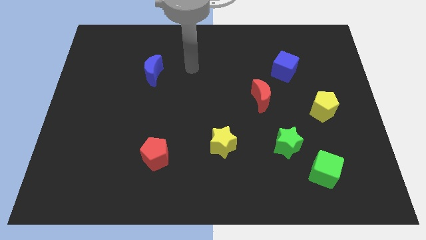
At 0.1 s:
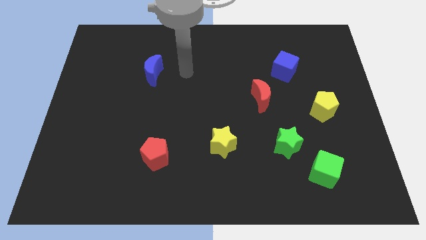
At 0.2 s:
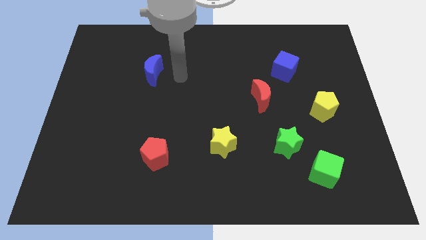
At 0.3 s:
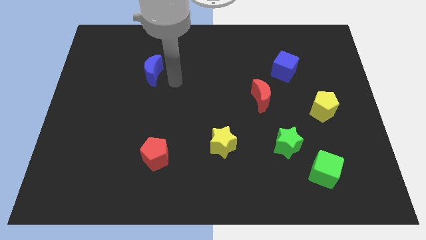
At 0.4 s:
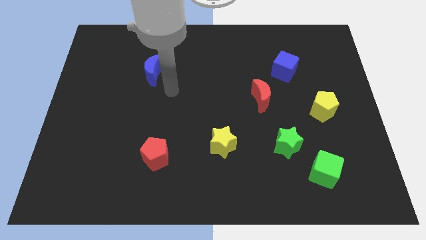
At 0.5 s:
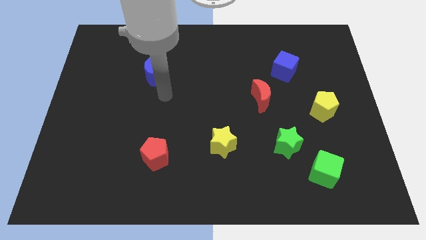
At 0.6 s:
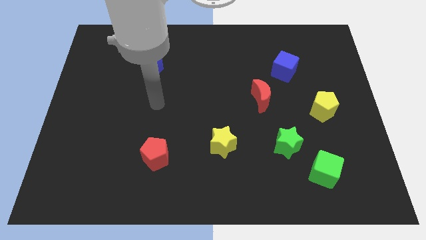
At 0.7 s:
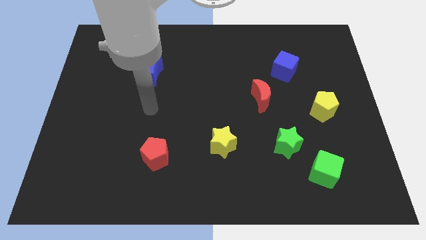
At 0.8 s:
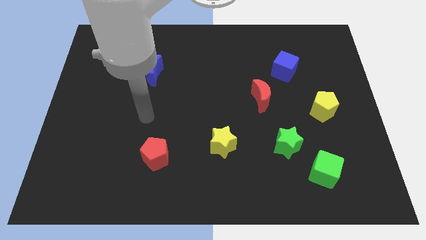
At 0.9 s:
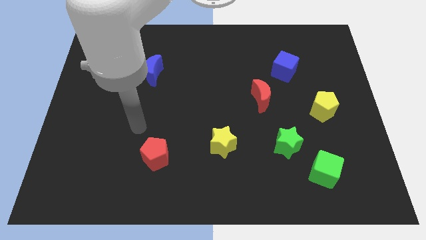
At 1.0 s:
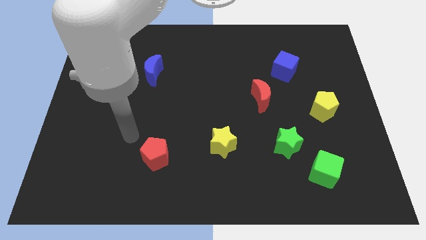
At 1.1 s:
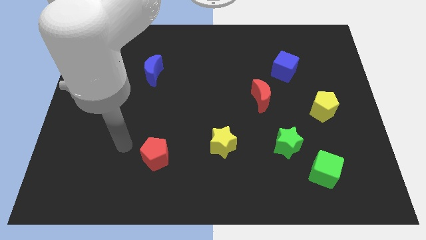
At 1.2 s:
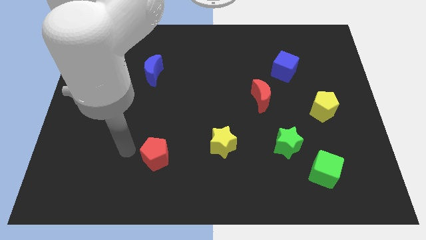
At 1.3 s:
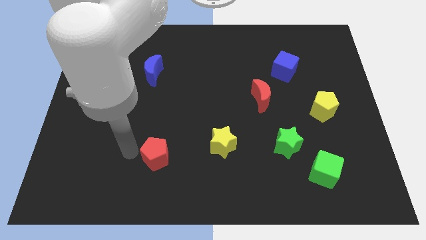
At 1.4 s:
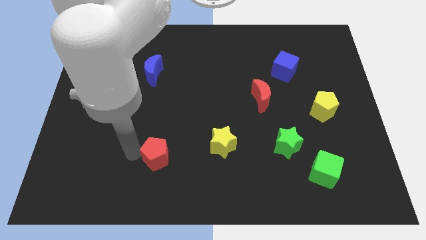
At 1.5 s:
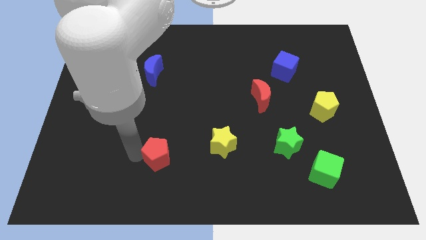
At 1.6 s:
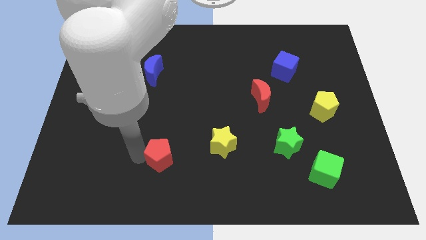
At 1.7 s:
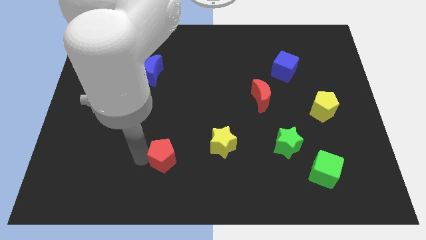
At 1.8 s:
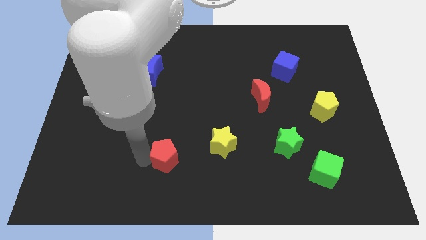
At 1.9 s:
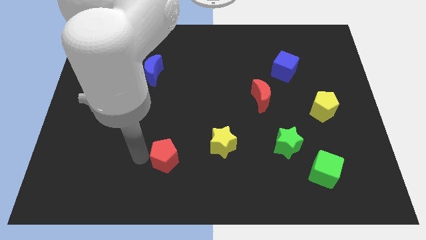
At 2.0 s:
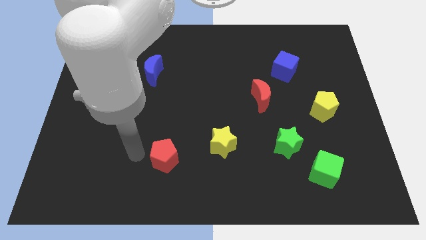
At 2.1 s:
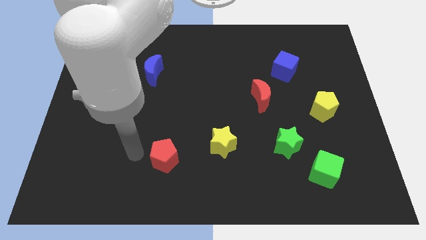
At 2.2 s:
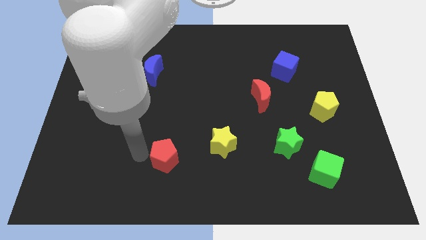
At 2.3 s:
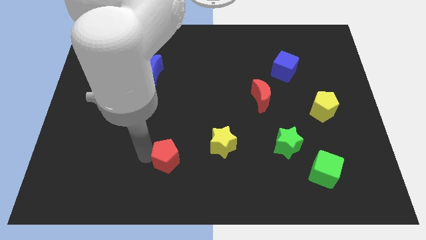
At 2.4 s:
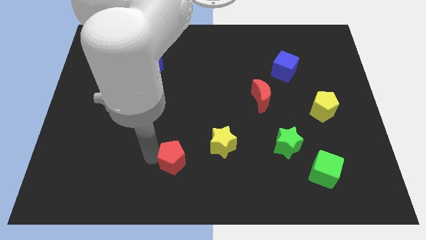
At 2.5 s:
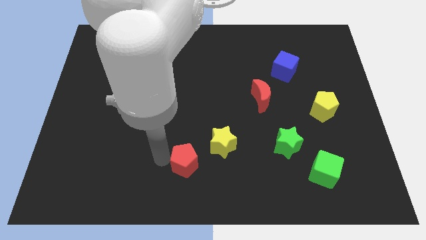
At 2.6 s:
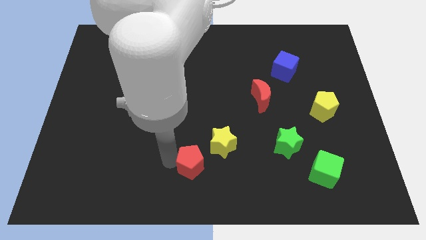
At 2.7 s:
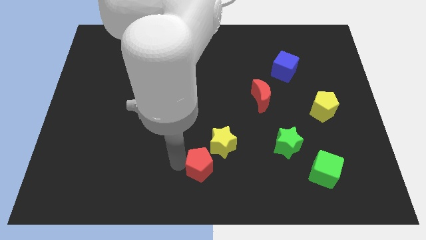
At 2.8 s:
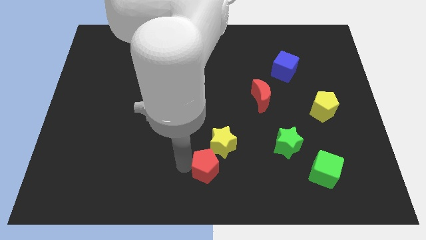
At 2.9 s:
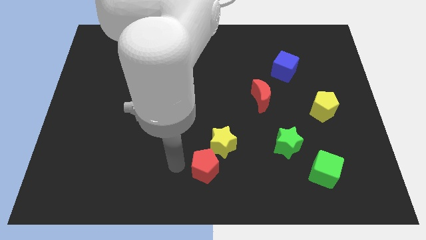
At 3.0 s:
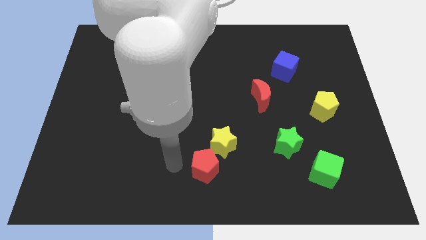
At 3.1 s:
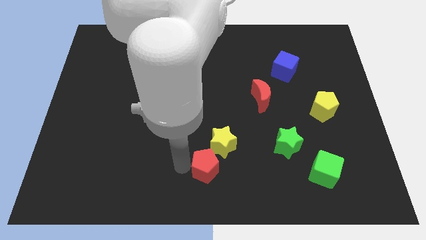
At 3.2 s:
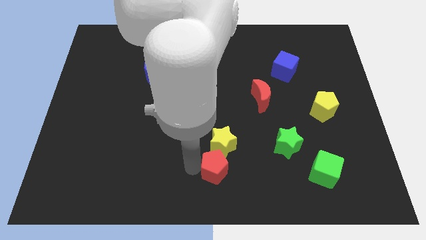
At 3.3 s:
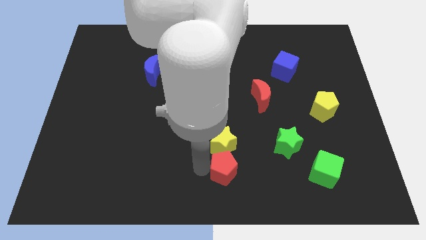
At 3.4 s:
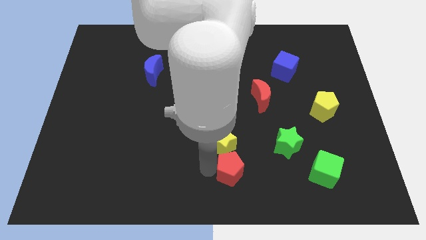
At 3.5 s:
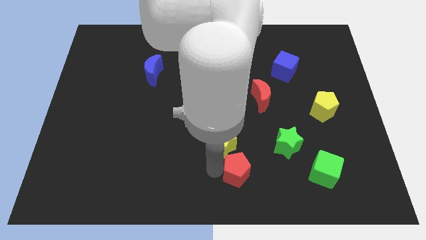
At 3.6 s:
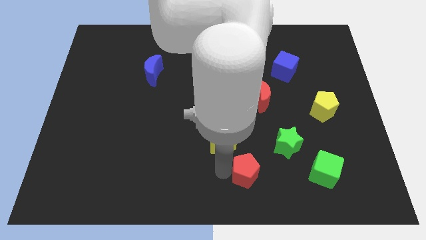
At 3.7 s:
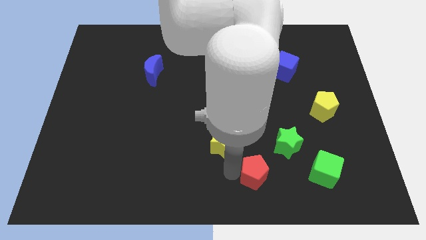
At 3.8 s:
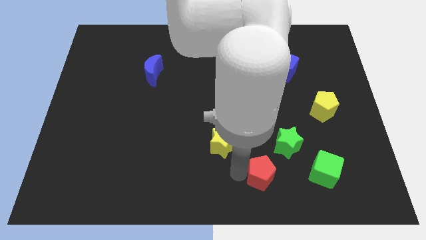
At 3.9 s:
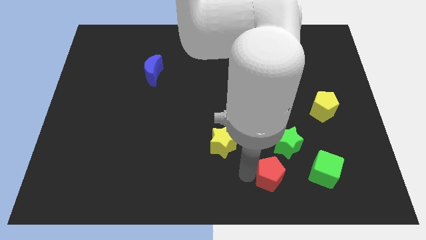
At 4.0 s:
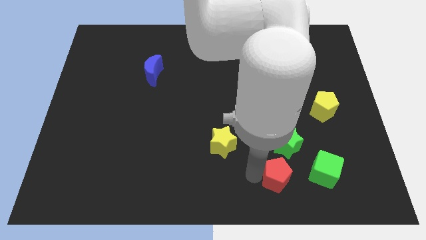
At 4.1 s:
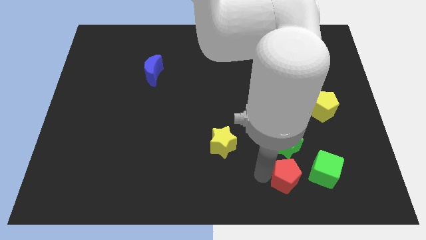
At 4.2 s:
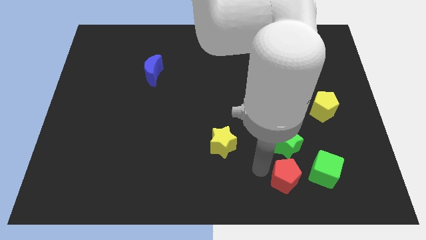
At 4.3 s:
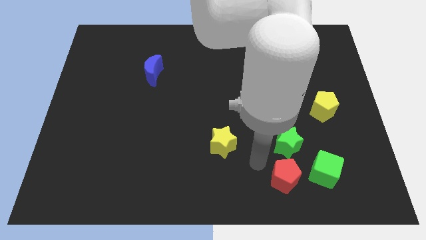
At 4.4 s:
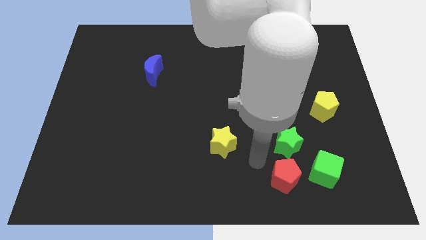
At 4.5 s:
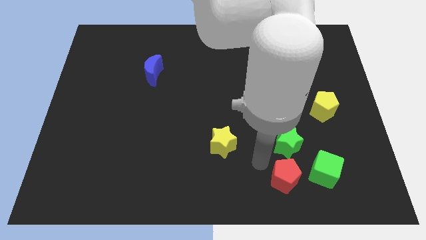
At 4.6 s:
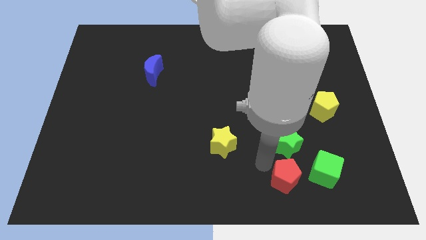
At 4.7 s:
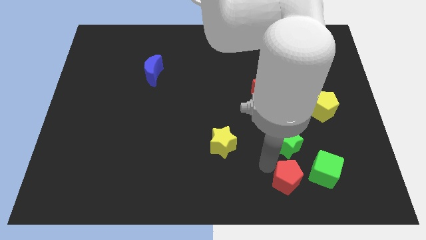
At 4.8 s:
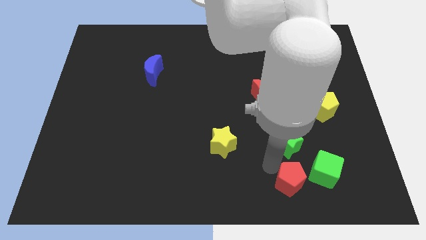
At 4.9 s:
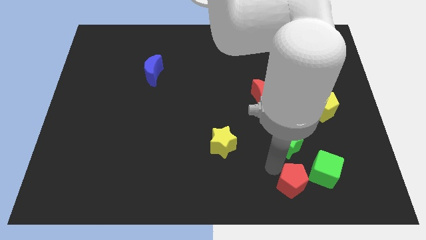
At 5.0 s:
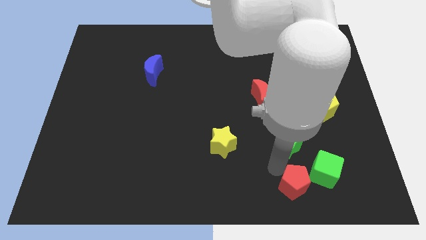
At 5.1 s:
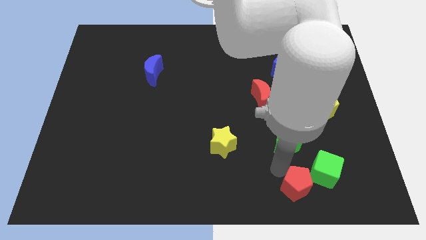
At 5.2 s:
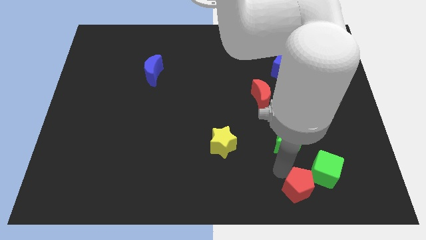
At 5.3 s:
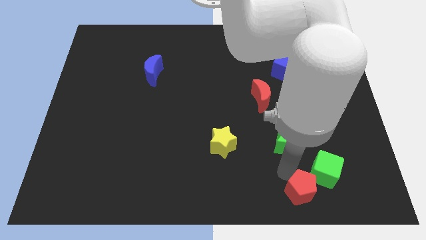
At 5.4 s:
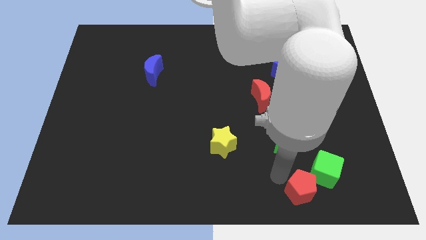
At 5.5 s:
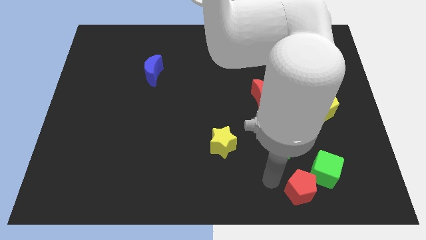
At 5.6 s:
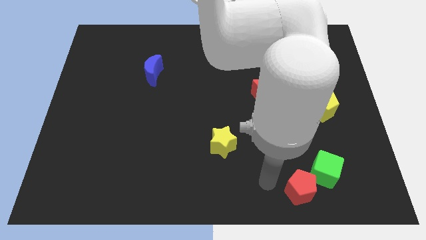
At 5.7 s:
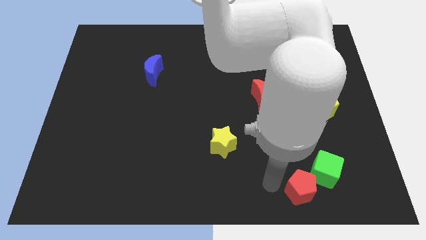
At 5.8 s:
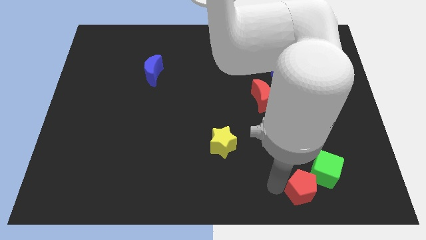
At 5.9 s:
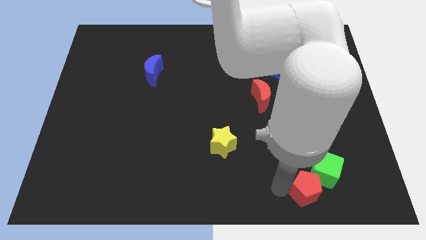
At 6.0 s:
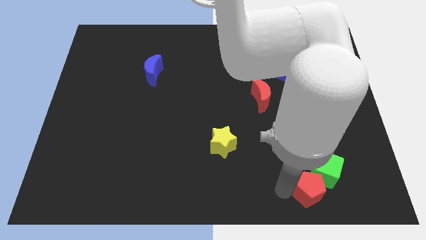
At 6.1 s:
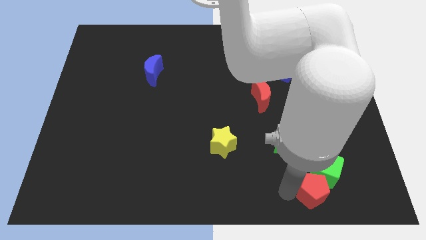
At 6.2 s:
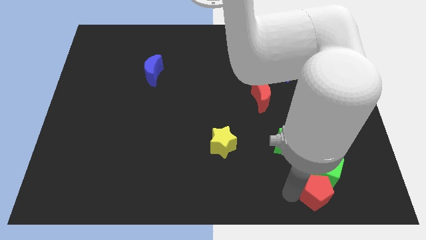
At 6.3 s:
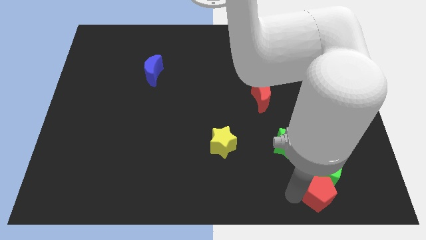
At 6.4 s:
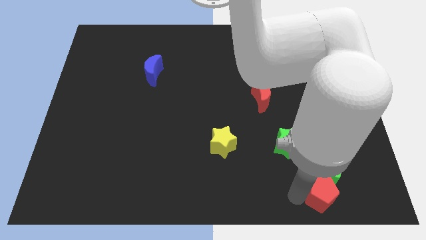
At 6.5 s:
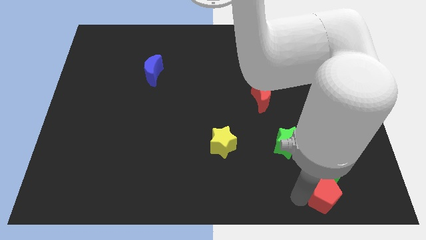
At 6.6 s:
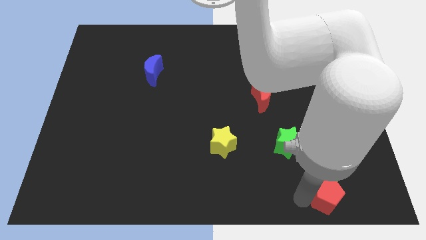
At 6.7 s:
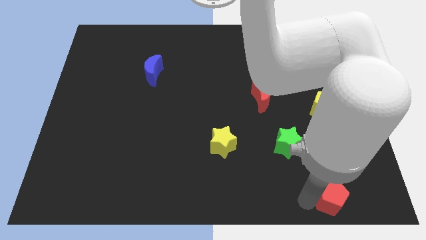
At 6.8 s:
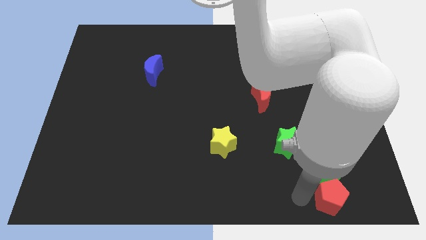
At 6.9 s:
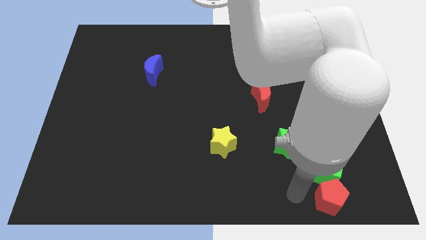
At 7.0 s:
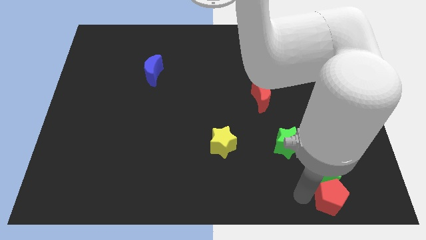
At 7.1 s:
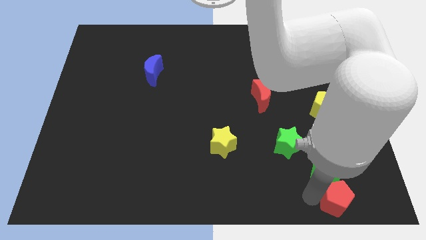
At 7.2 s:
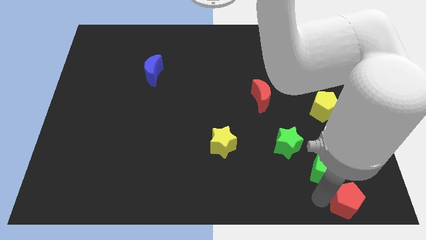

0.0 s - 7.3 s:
move the red pentagon to the bottom right corner
